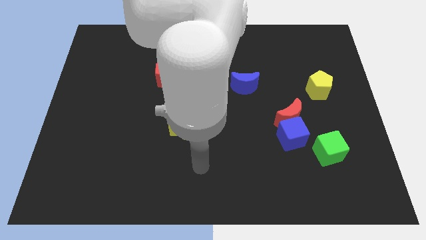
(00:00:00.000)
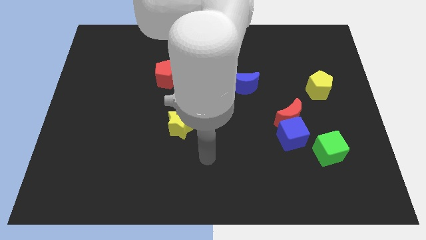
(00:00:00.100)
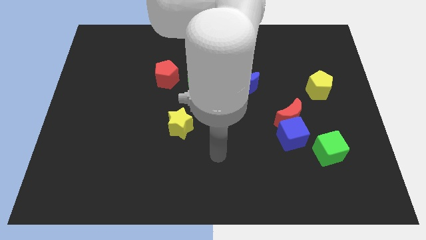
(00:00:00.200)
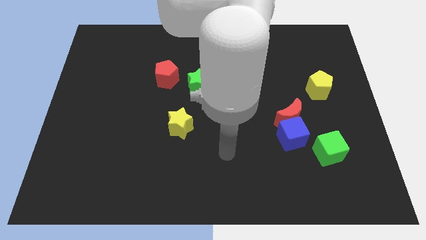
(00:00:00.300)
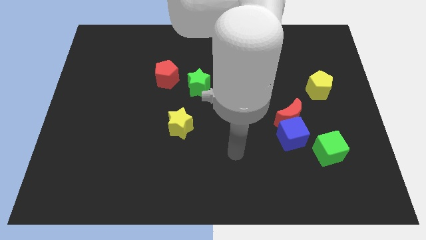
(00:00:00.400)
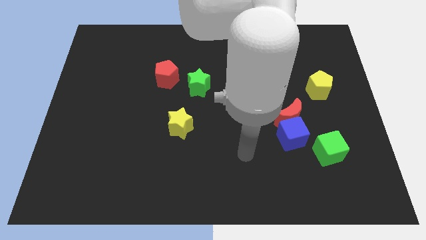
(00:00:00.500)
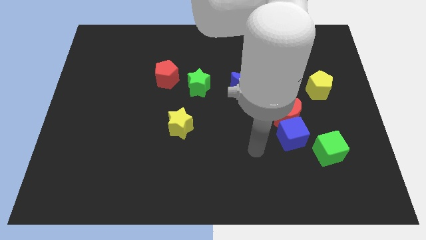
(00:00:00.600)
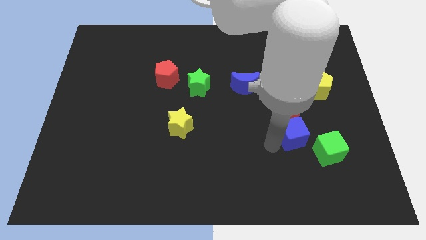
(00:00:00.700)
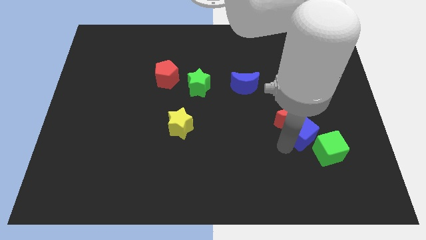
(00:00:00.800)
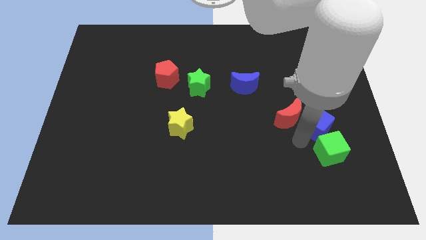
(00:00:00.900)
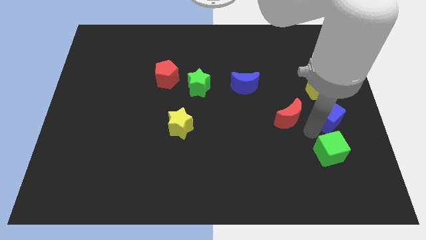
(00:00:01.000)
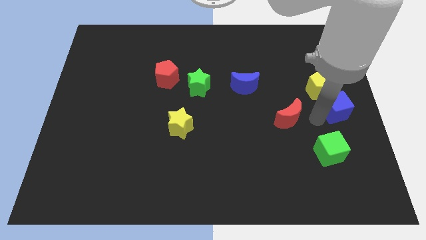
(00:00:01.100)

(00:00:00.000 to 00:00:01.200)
pull the red moon apart from the blue cube

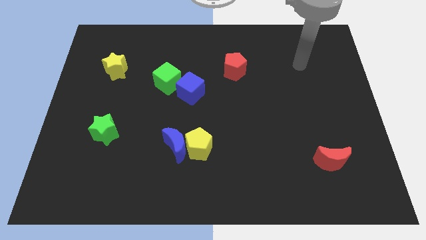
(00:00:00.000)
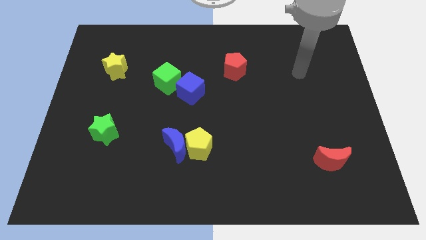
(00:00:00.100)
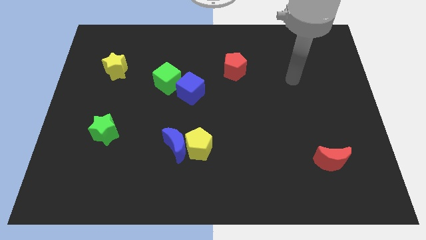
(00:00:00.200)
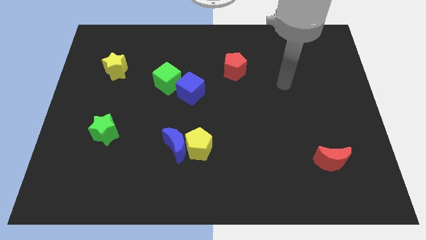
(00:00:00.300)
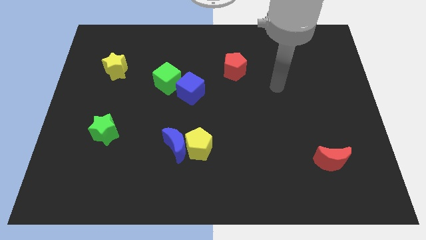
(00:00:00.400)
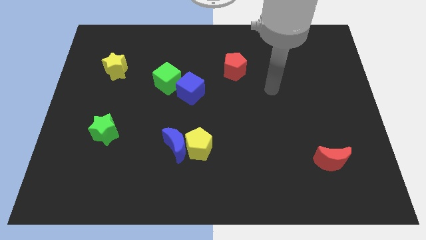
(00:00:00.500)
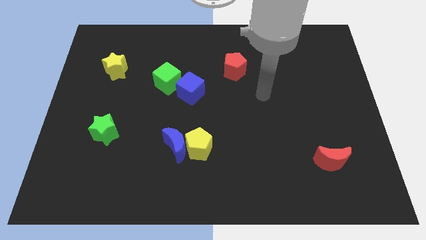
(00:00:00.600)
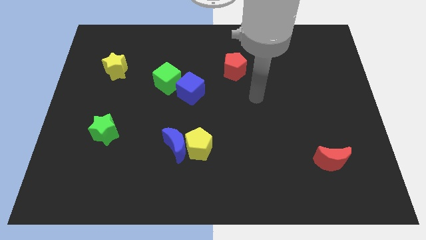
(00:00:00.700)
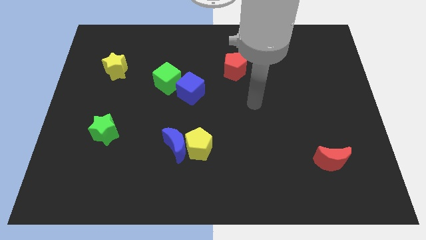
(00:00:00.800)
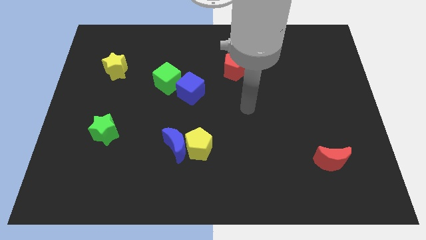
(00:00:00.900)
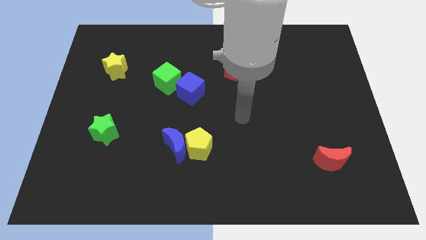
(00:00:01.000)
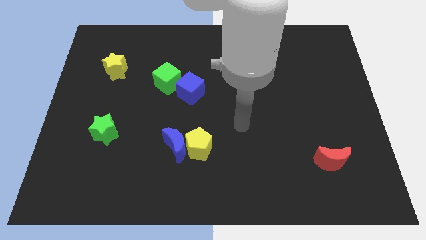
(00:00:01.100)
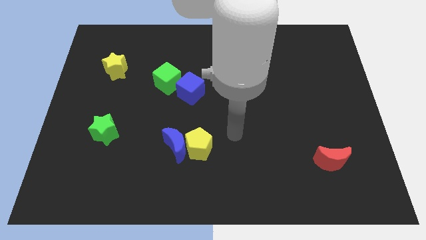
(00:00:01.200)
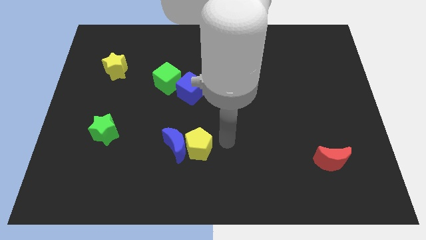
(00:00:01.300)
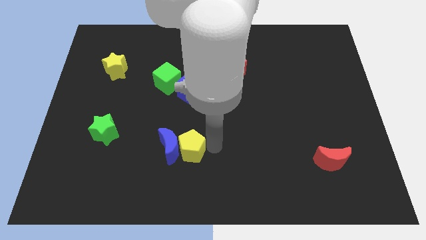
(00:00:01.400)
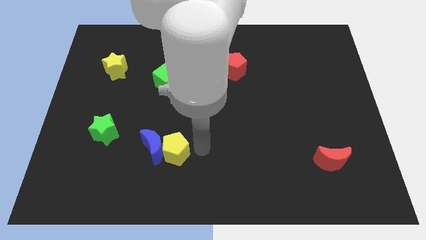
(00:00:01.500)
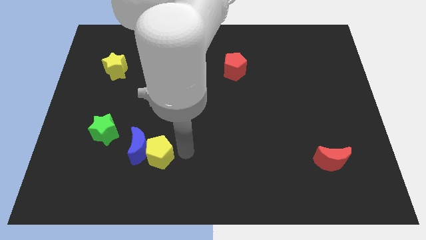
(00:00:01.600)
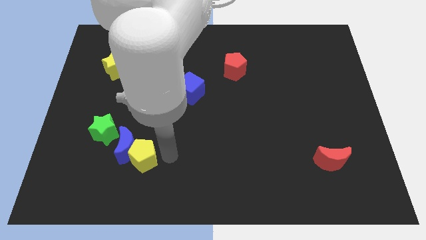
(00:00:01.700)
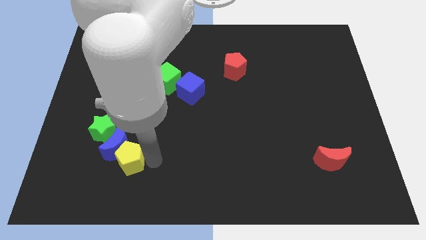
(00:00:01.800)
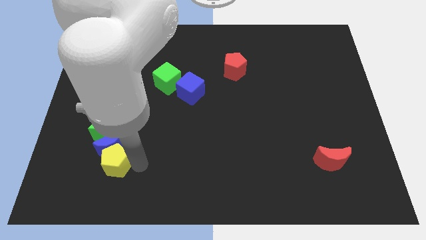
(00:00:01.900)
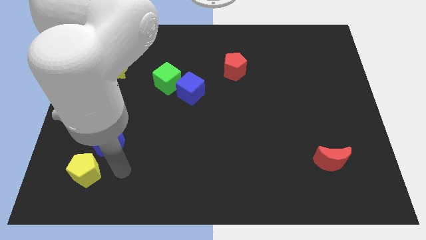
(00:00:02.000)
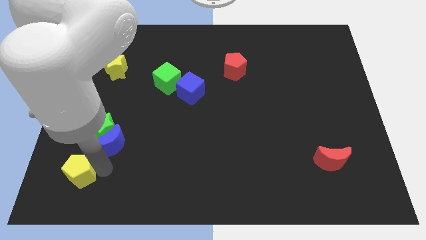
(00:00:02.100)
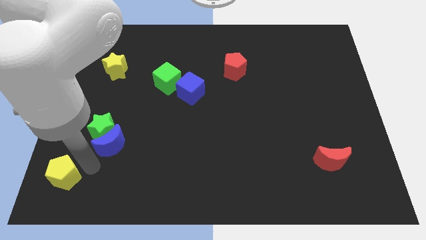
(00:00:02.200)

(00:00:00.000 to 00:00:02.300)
separate the blue moon from the yellow pentagon

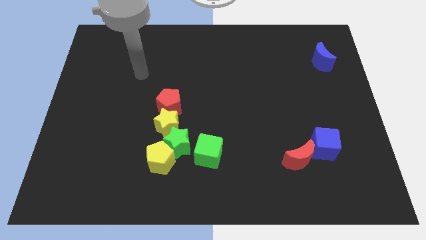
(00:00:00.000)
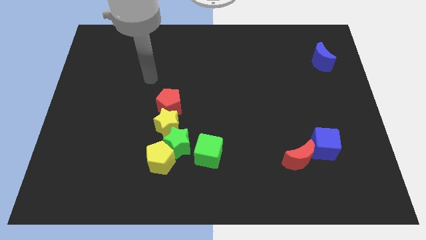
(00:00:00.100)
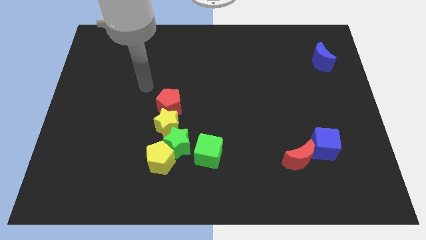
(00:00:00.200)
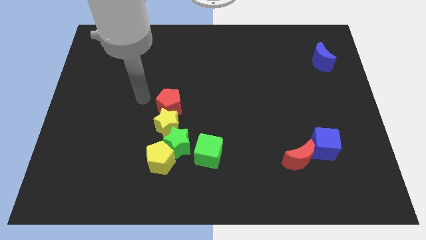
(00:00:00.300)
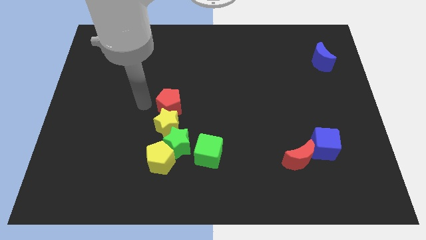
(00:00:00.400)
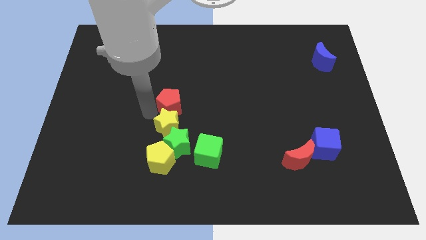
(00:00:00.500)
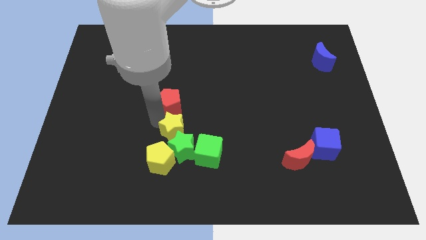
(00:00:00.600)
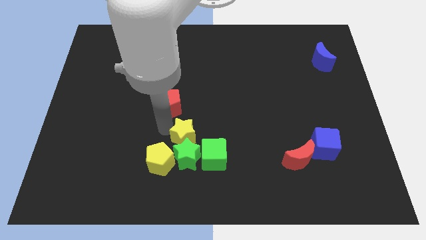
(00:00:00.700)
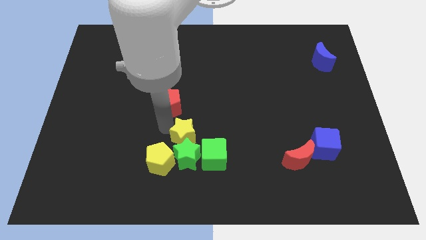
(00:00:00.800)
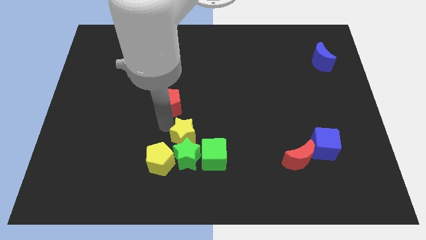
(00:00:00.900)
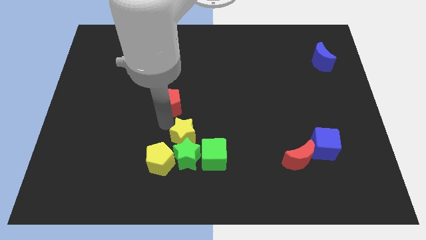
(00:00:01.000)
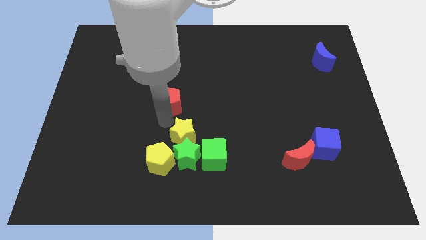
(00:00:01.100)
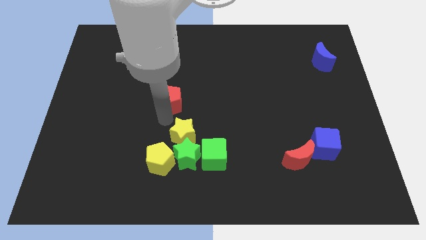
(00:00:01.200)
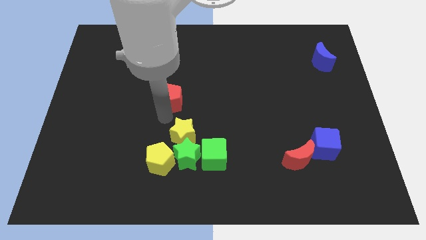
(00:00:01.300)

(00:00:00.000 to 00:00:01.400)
pull the red pentagon apart from the yellow star

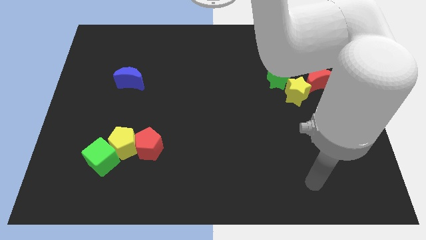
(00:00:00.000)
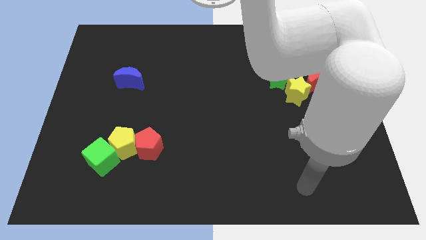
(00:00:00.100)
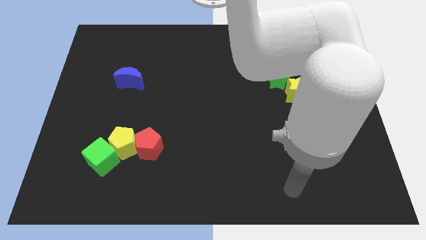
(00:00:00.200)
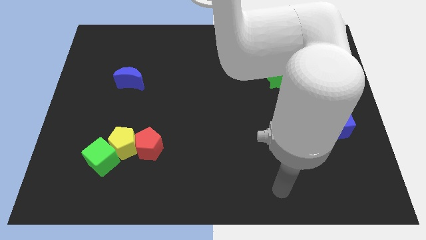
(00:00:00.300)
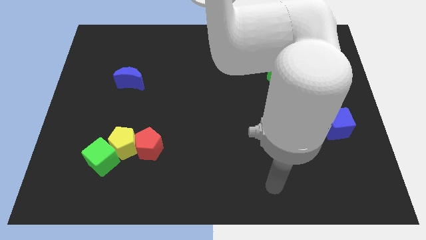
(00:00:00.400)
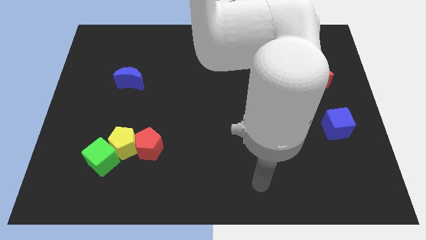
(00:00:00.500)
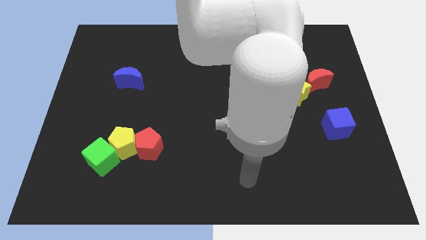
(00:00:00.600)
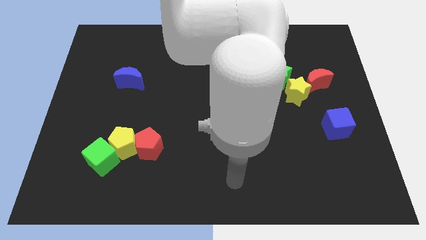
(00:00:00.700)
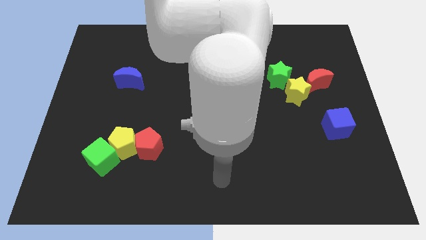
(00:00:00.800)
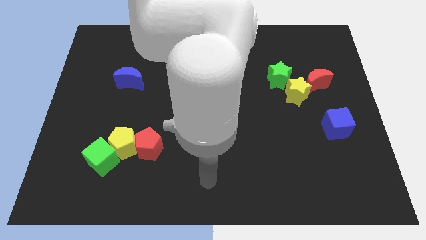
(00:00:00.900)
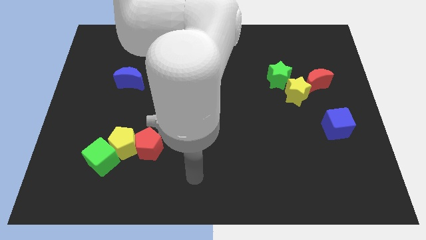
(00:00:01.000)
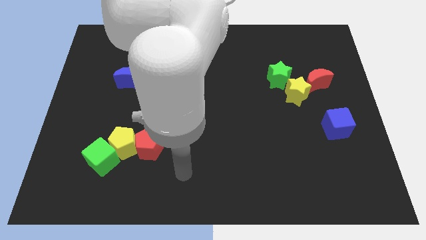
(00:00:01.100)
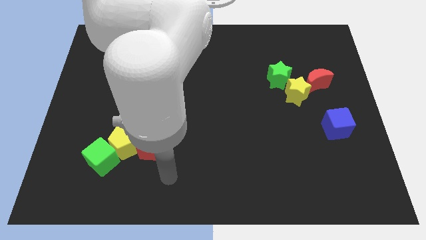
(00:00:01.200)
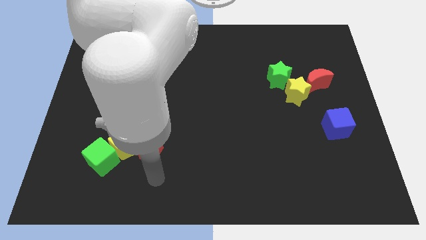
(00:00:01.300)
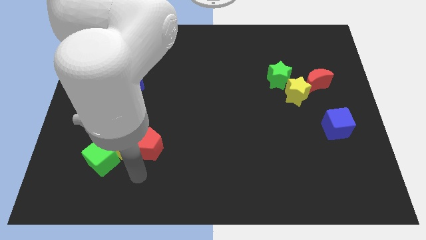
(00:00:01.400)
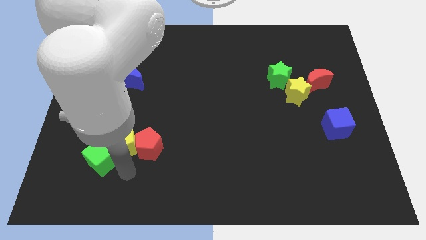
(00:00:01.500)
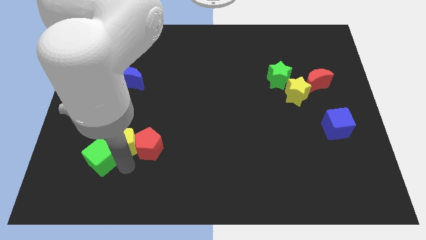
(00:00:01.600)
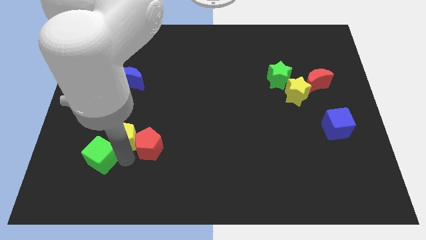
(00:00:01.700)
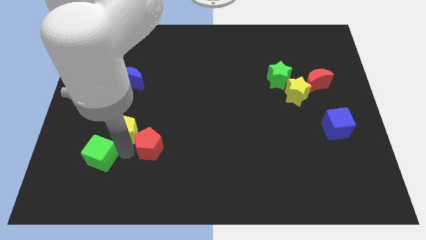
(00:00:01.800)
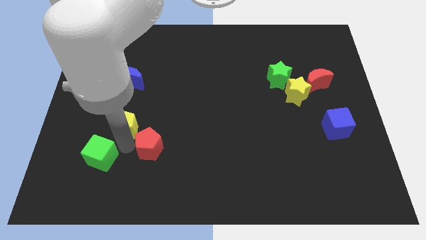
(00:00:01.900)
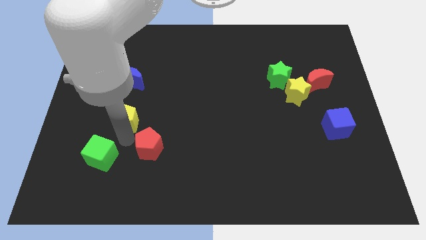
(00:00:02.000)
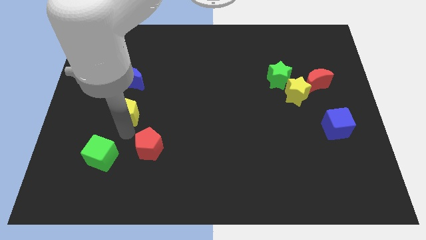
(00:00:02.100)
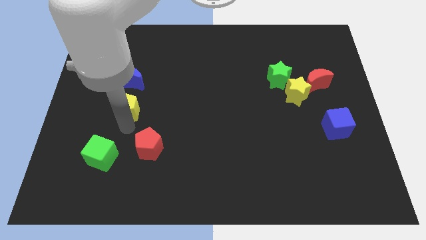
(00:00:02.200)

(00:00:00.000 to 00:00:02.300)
pull the yellow pentagon apart from the red pentagon and green cube

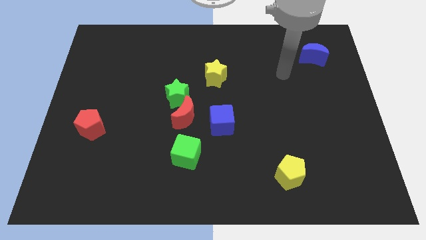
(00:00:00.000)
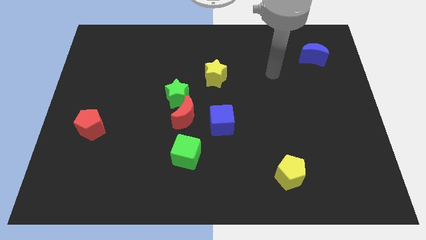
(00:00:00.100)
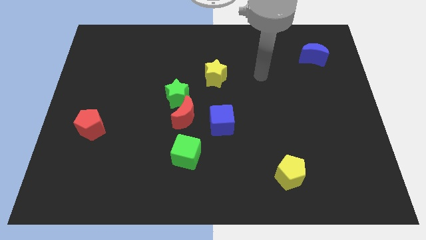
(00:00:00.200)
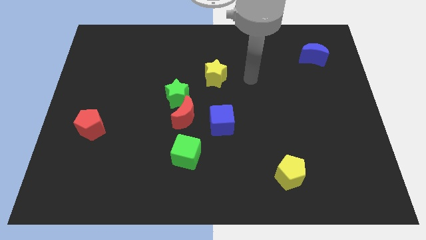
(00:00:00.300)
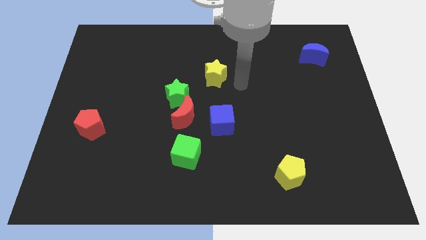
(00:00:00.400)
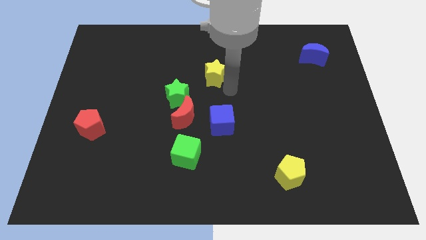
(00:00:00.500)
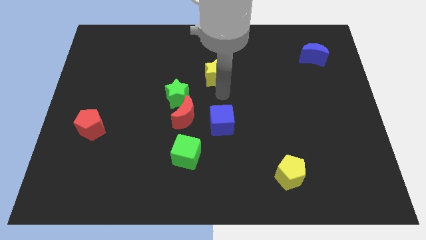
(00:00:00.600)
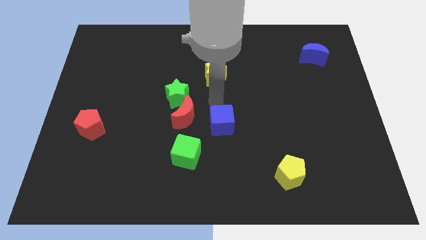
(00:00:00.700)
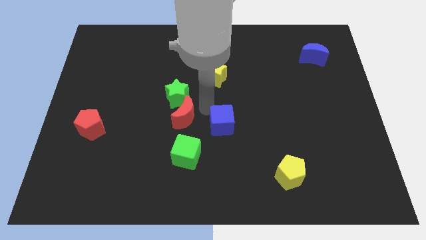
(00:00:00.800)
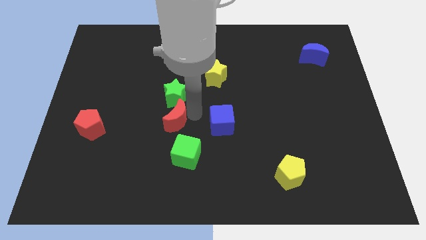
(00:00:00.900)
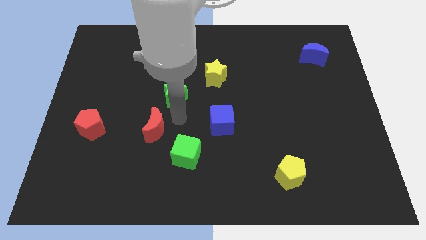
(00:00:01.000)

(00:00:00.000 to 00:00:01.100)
move the green star away from the red moon

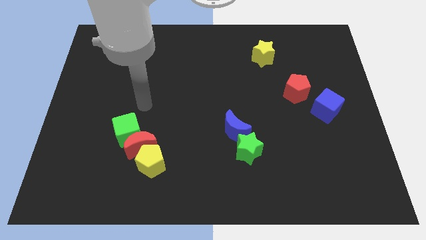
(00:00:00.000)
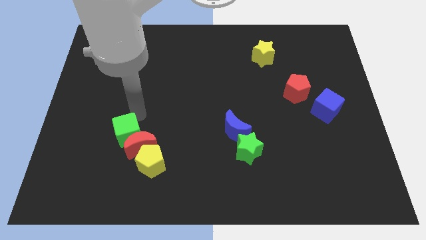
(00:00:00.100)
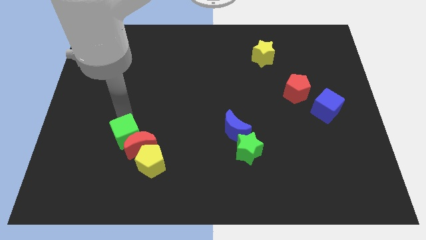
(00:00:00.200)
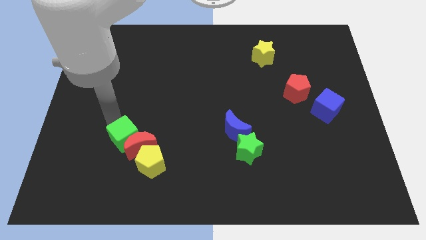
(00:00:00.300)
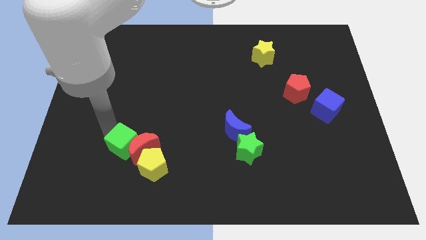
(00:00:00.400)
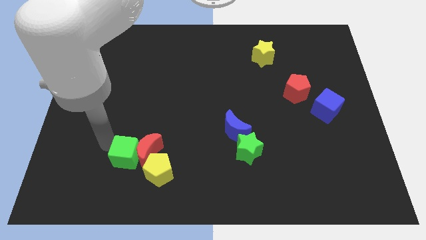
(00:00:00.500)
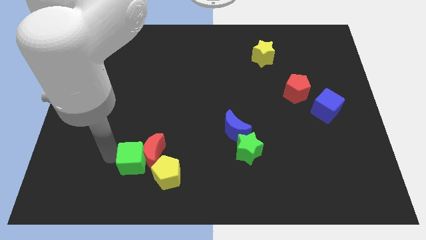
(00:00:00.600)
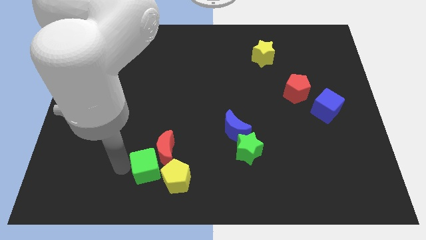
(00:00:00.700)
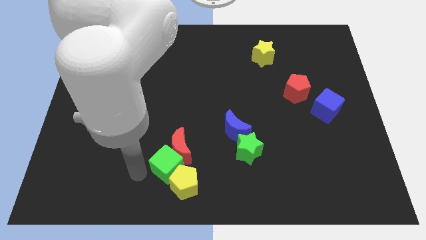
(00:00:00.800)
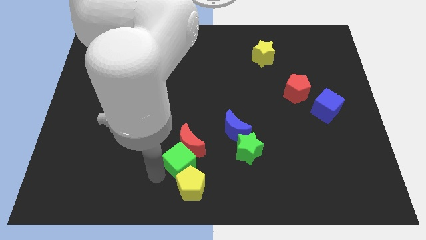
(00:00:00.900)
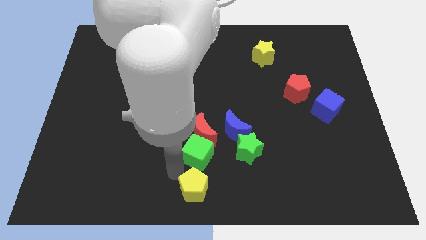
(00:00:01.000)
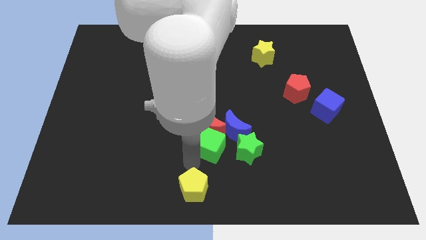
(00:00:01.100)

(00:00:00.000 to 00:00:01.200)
separate the red moon from the yellow pentagon and green cube
